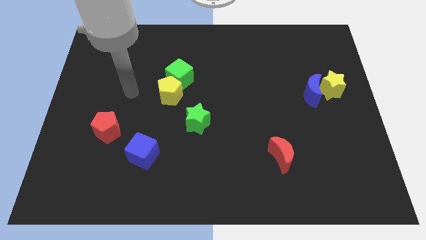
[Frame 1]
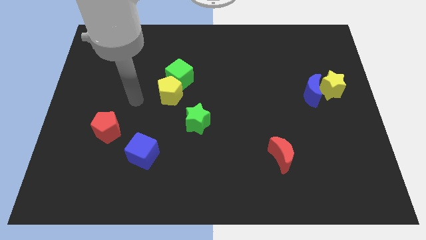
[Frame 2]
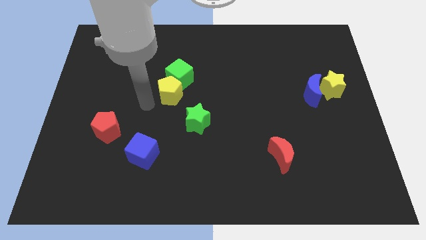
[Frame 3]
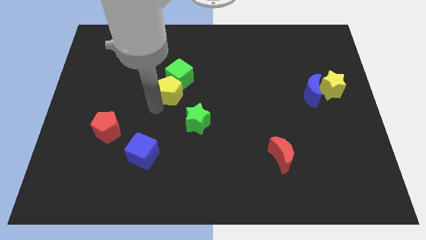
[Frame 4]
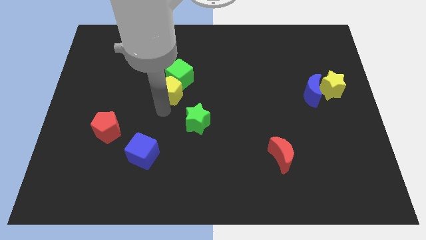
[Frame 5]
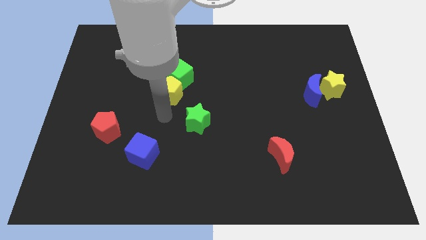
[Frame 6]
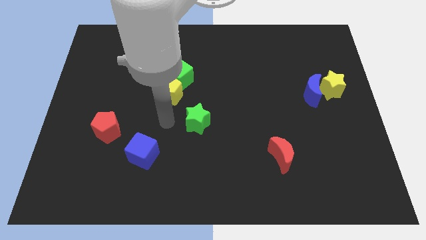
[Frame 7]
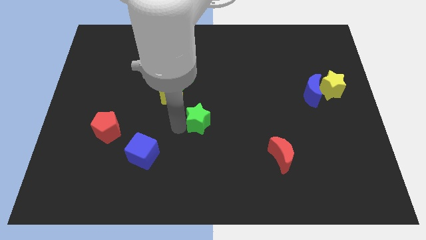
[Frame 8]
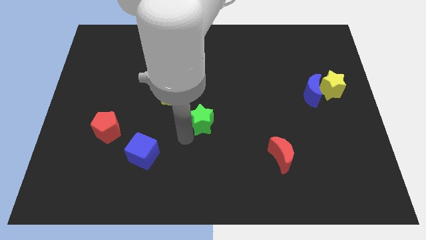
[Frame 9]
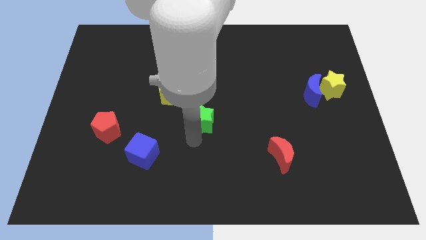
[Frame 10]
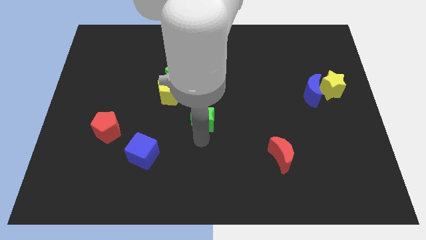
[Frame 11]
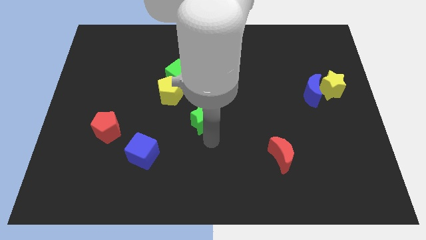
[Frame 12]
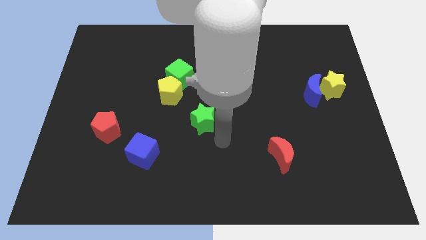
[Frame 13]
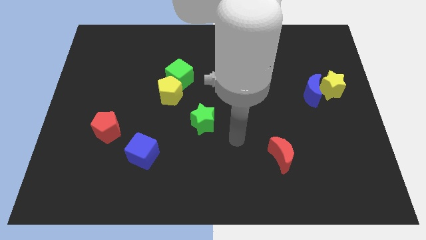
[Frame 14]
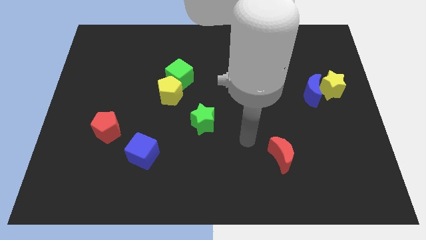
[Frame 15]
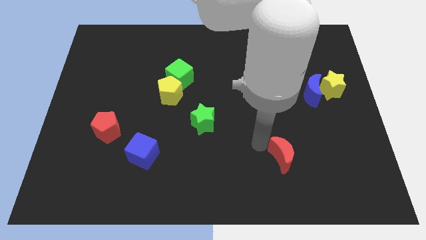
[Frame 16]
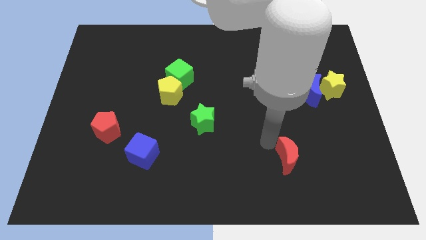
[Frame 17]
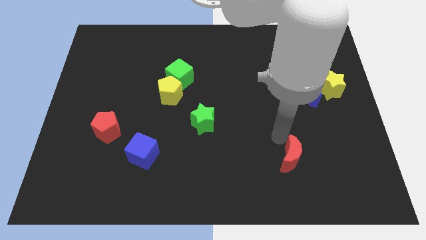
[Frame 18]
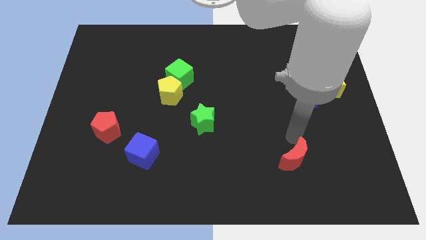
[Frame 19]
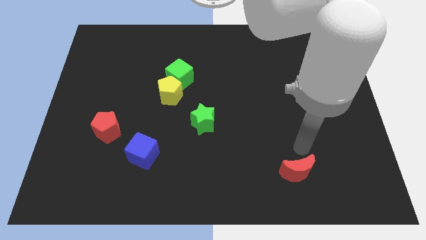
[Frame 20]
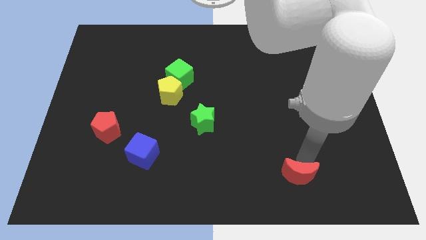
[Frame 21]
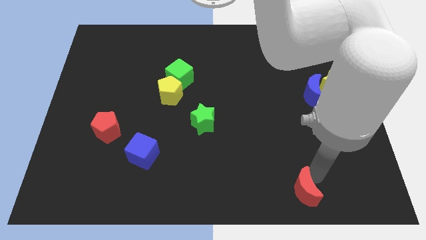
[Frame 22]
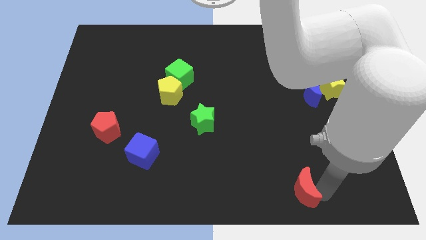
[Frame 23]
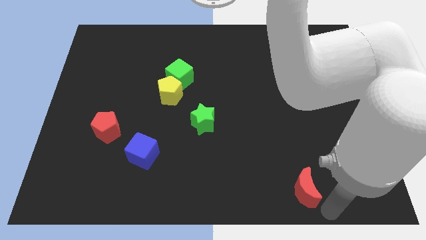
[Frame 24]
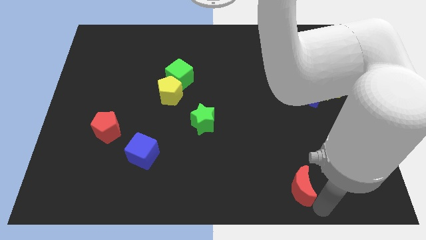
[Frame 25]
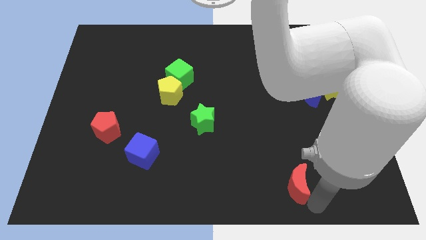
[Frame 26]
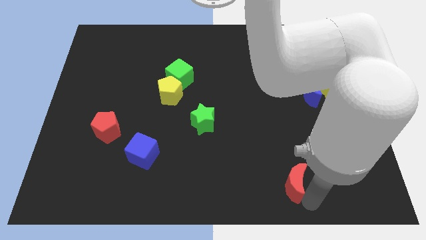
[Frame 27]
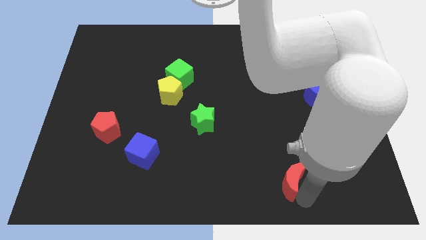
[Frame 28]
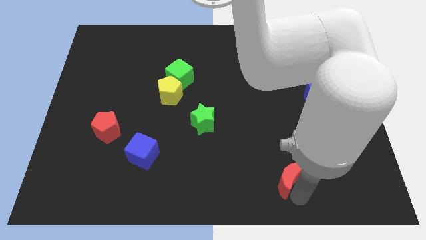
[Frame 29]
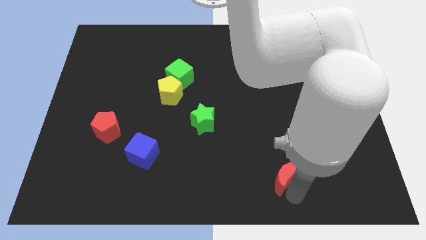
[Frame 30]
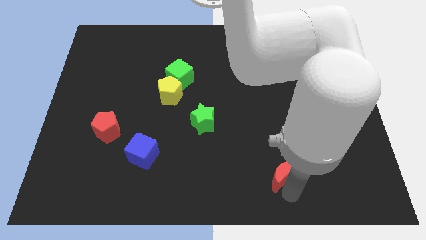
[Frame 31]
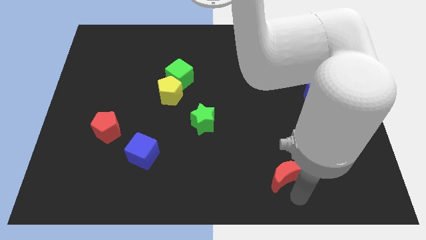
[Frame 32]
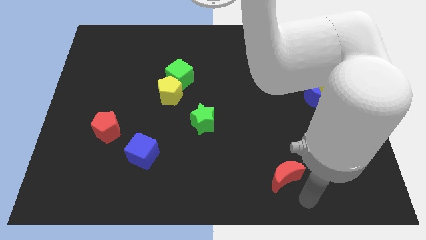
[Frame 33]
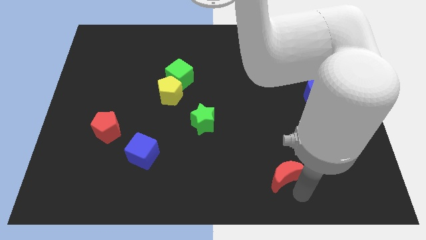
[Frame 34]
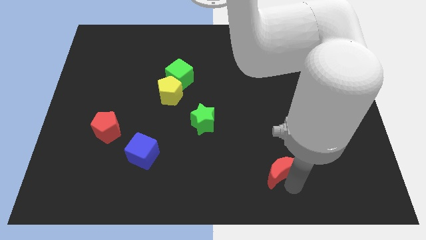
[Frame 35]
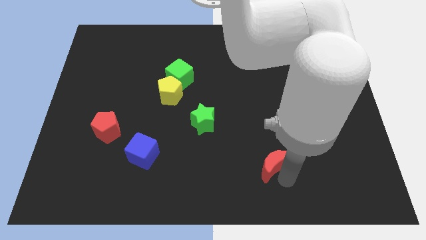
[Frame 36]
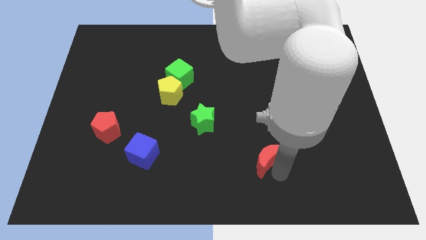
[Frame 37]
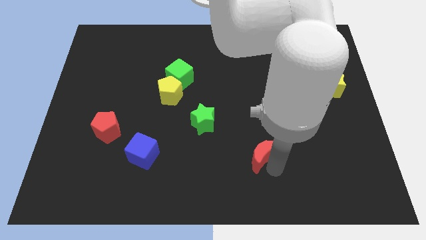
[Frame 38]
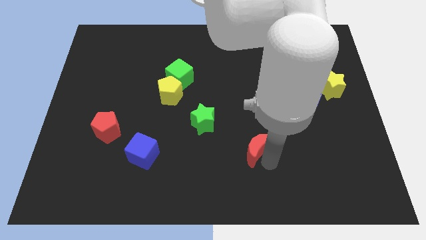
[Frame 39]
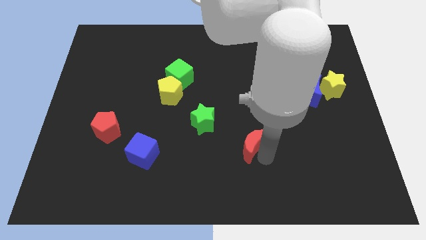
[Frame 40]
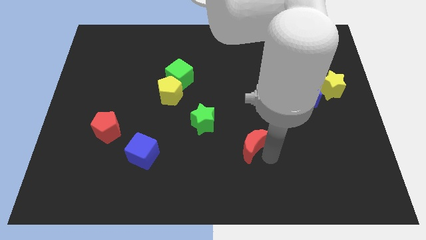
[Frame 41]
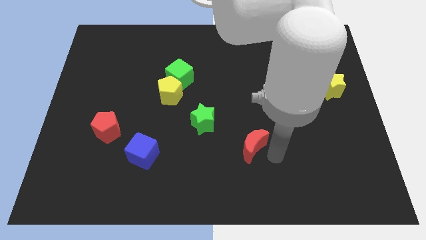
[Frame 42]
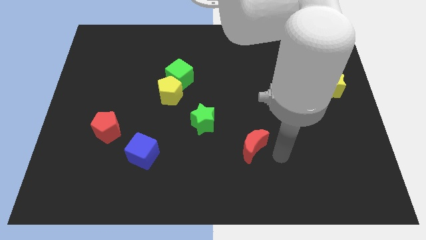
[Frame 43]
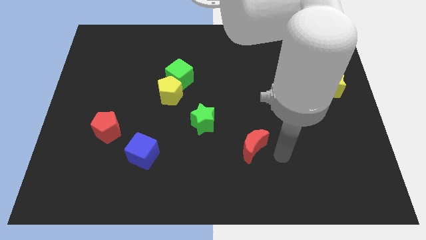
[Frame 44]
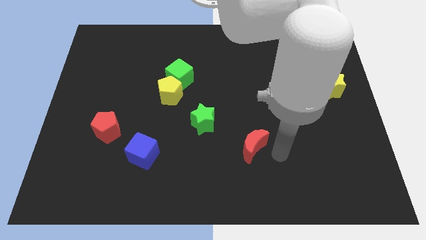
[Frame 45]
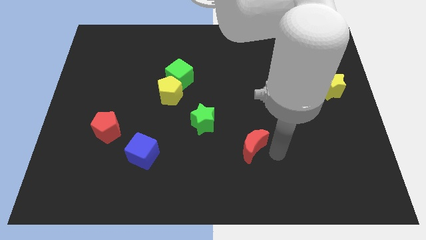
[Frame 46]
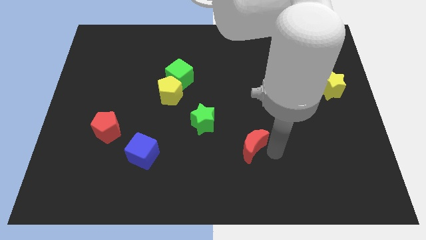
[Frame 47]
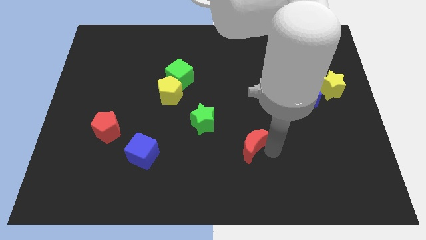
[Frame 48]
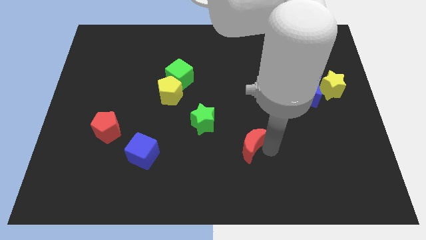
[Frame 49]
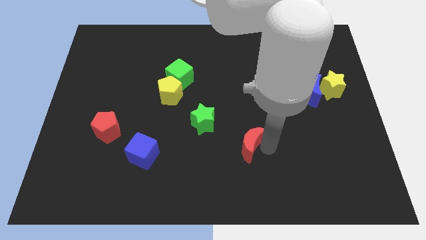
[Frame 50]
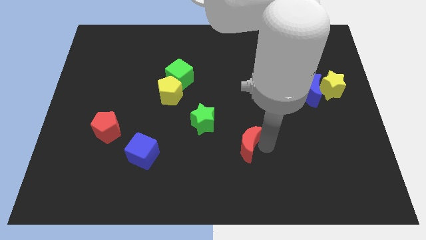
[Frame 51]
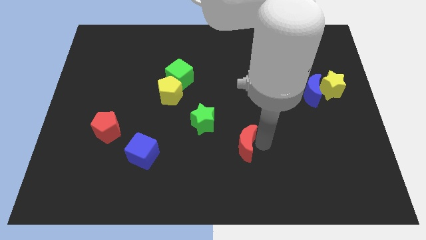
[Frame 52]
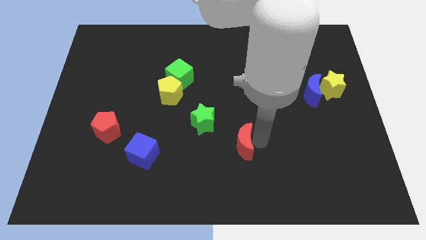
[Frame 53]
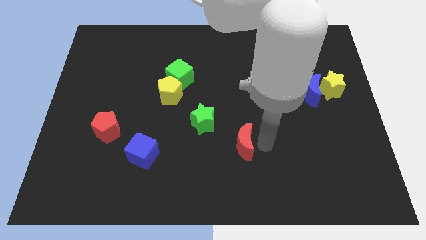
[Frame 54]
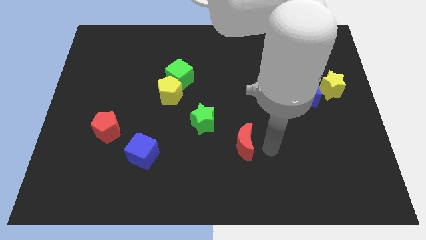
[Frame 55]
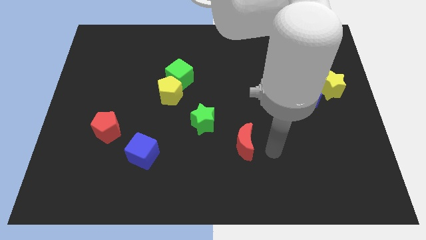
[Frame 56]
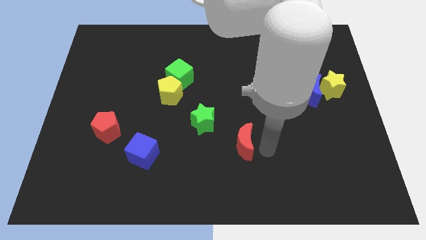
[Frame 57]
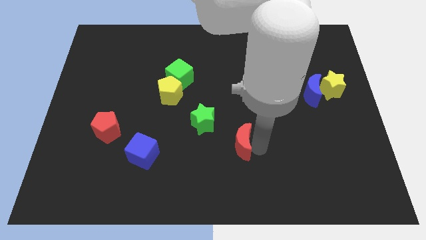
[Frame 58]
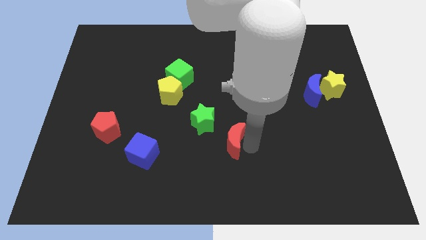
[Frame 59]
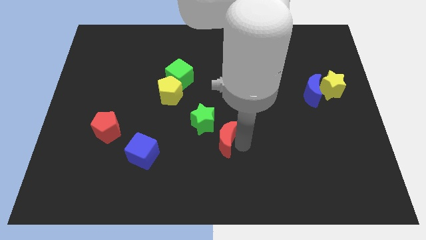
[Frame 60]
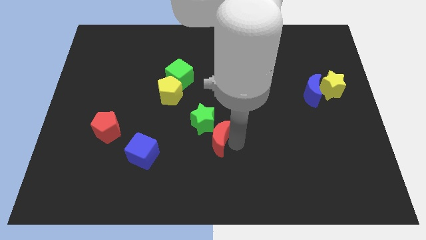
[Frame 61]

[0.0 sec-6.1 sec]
push the red moon to the green star

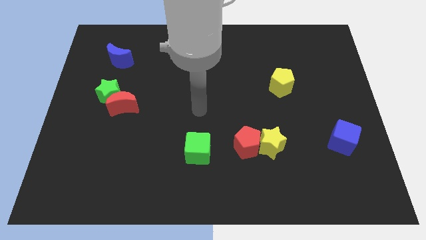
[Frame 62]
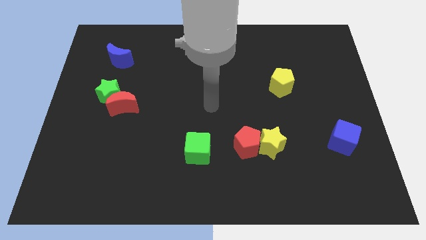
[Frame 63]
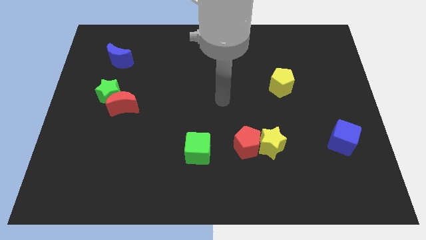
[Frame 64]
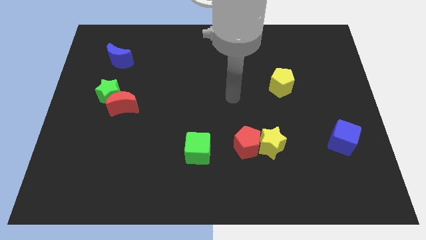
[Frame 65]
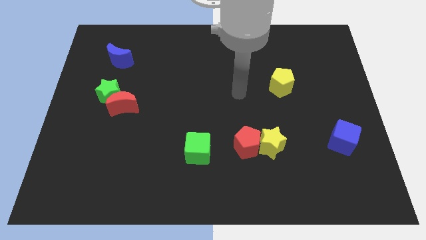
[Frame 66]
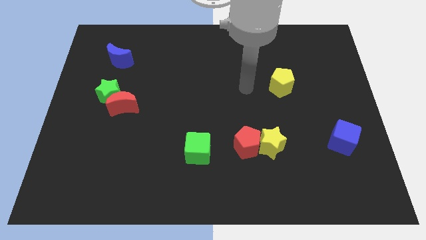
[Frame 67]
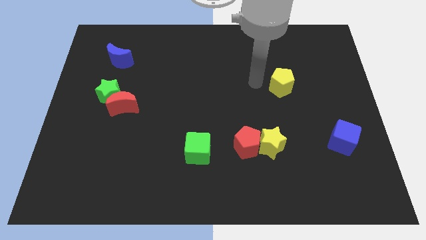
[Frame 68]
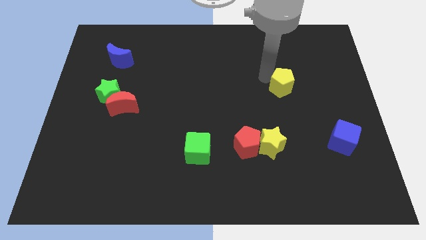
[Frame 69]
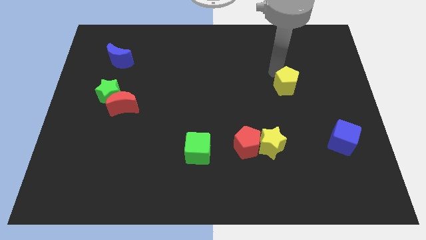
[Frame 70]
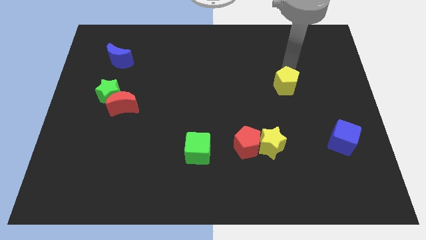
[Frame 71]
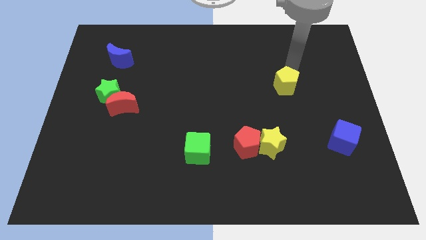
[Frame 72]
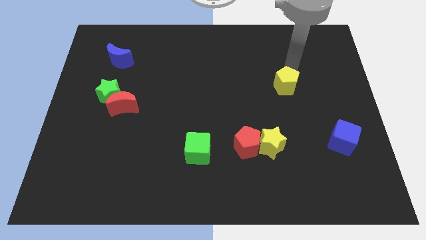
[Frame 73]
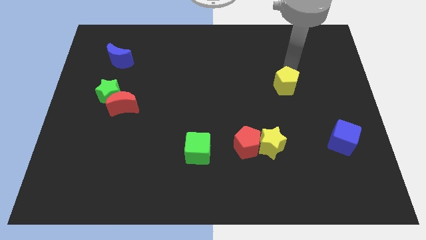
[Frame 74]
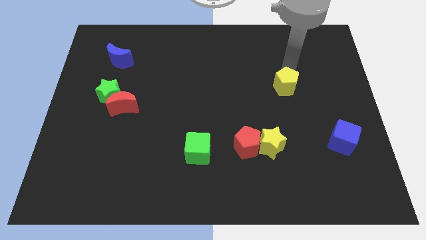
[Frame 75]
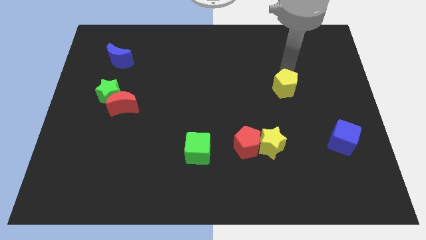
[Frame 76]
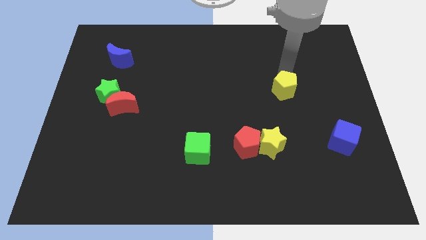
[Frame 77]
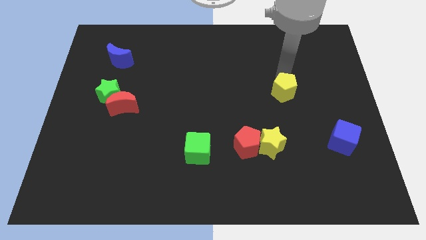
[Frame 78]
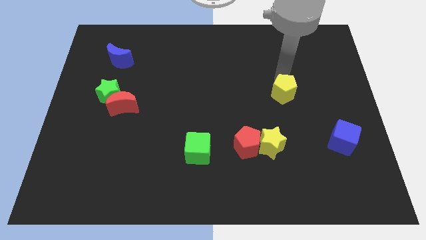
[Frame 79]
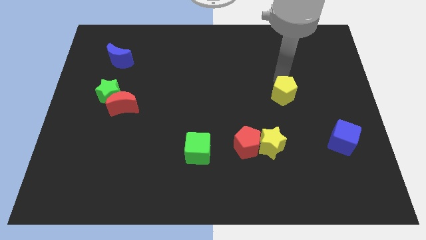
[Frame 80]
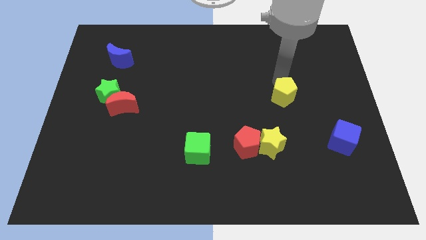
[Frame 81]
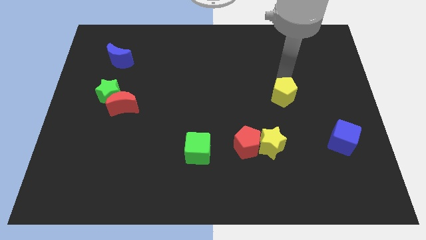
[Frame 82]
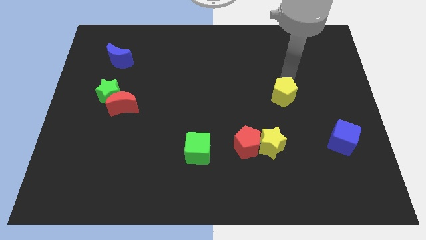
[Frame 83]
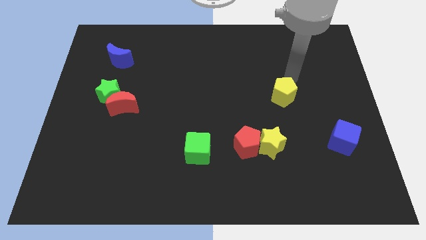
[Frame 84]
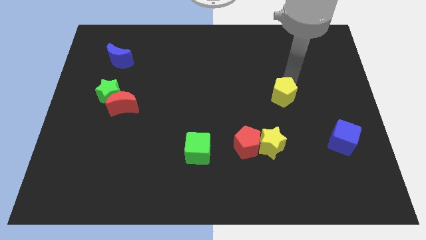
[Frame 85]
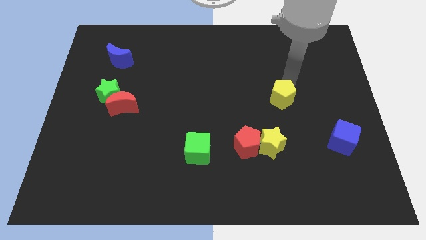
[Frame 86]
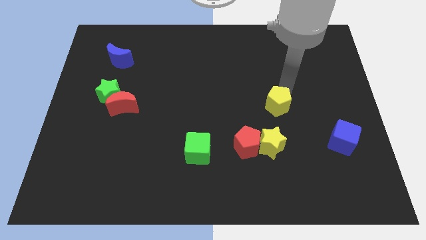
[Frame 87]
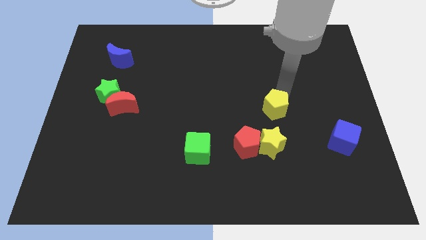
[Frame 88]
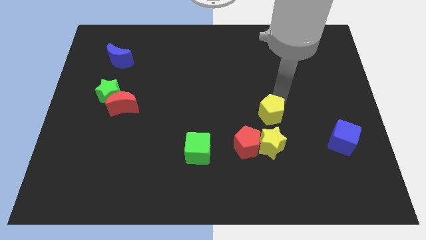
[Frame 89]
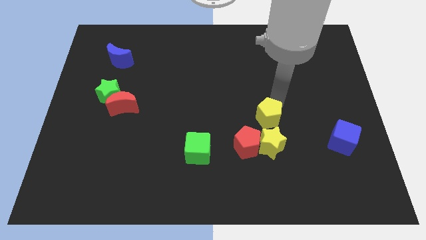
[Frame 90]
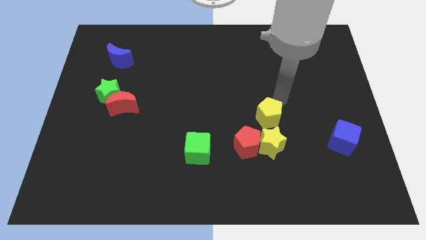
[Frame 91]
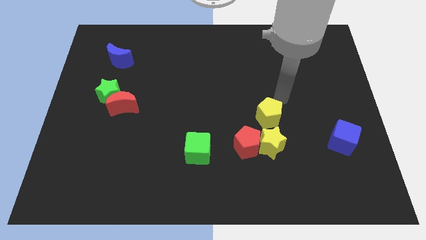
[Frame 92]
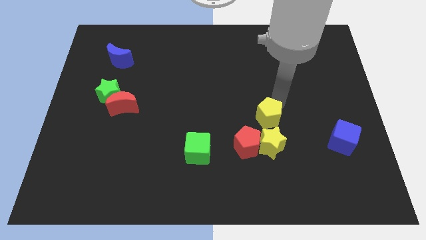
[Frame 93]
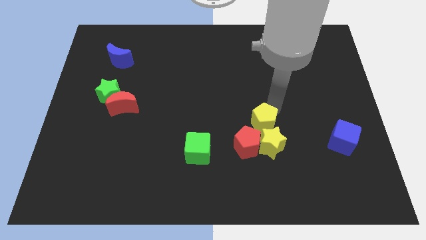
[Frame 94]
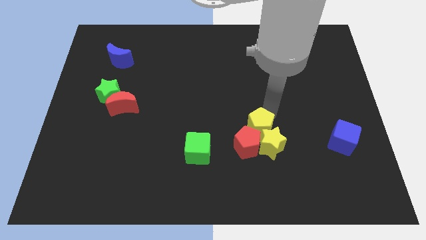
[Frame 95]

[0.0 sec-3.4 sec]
slide the yellow pentagon close to the red pentagon
